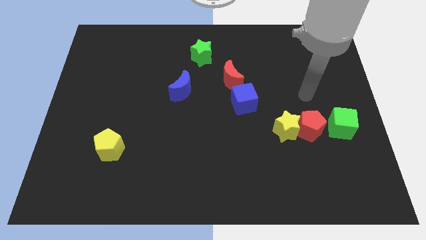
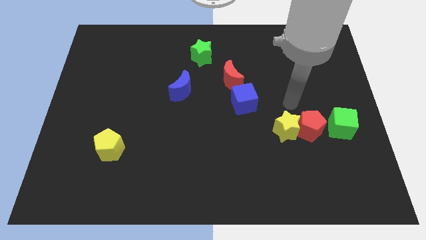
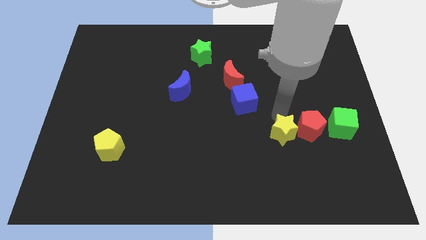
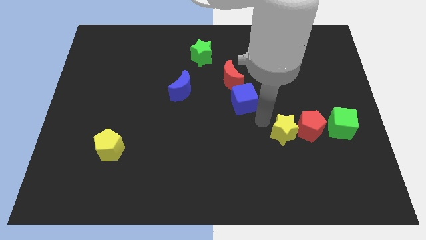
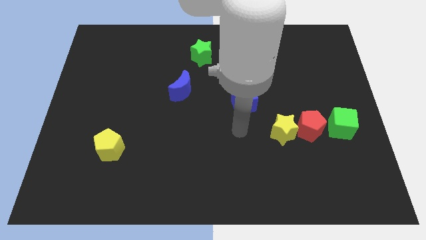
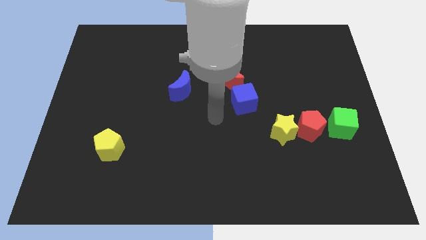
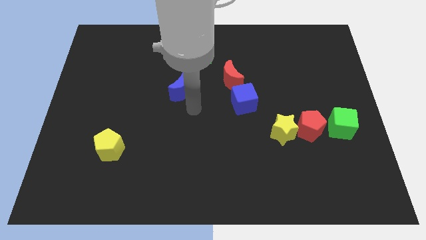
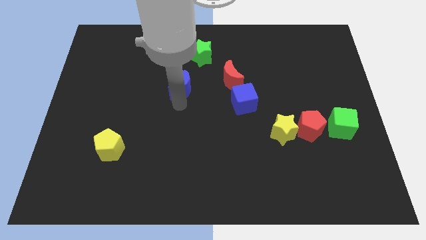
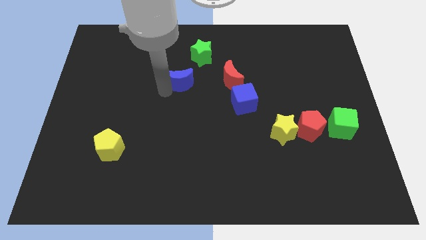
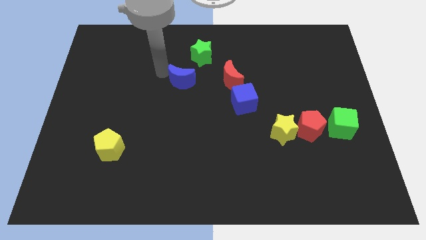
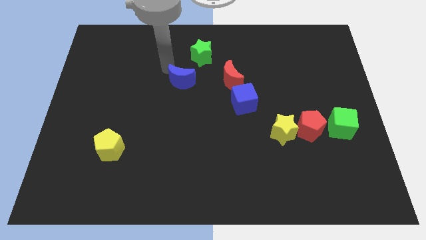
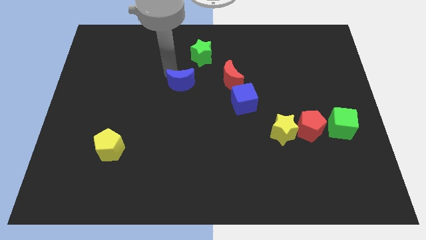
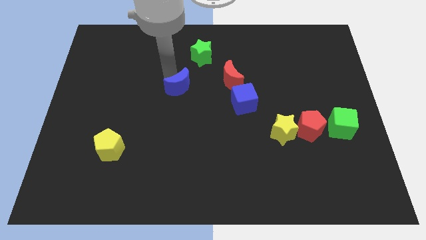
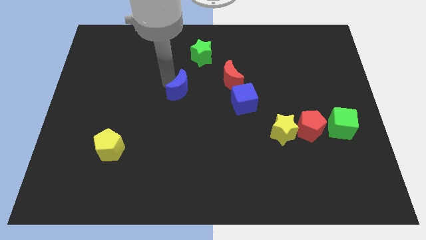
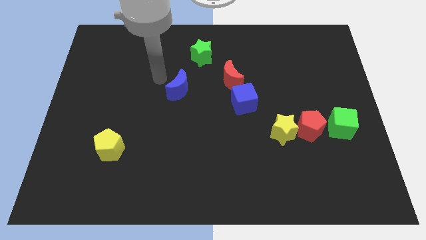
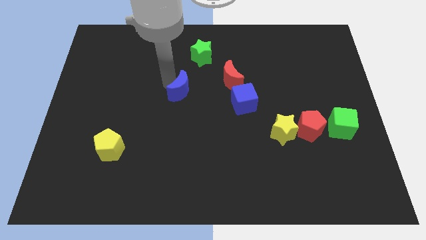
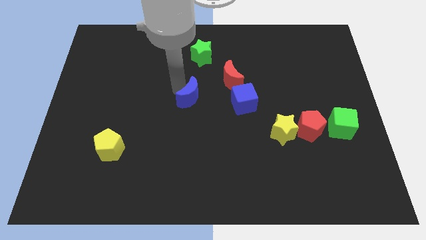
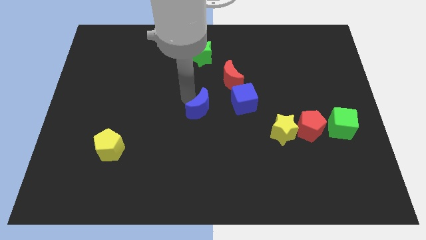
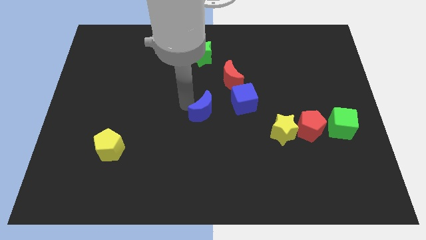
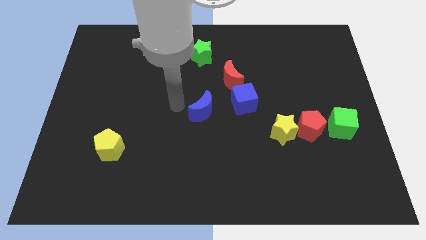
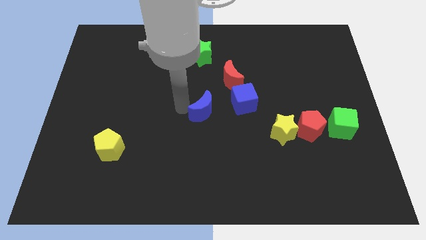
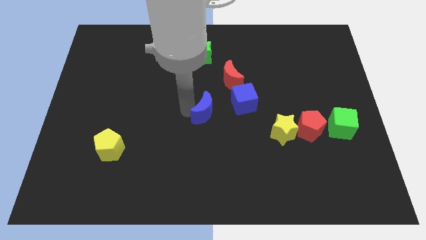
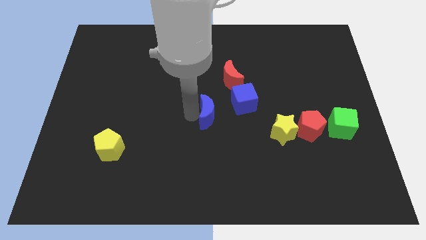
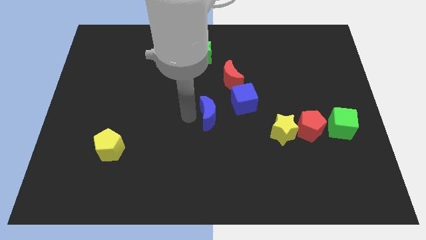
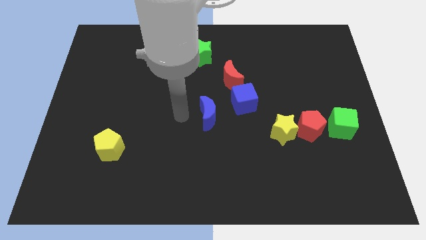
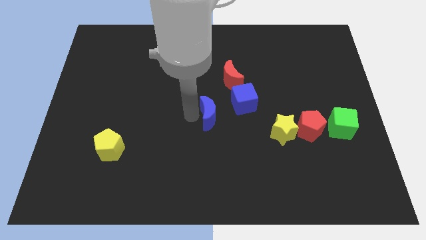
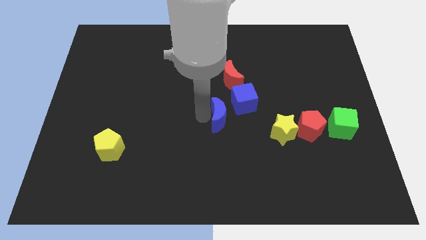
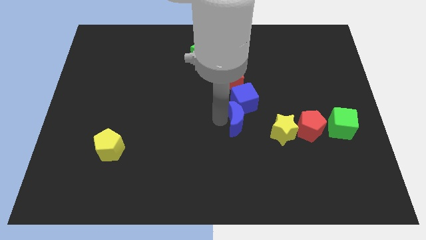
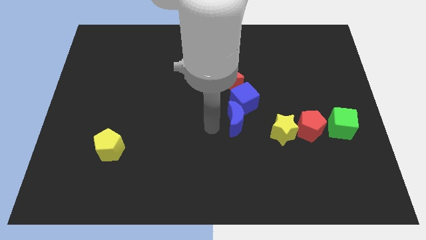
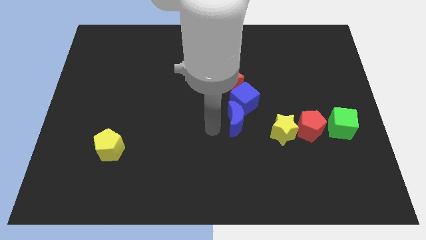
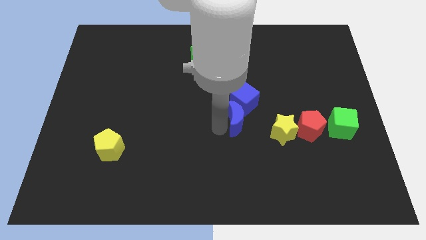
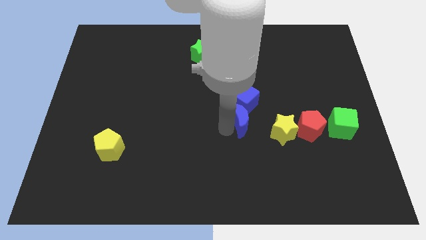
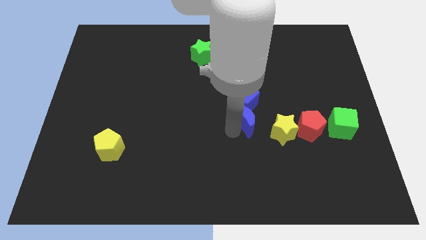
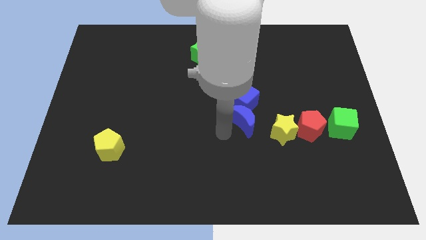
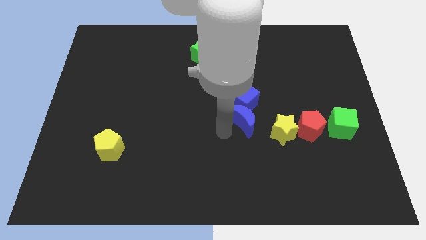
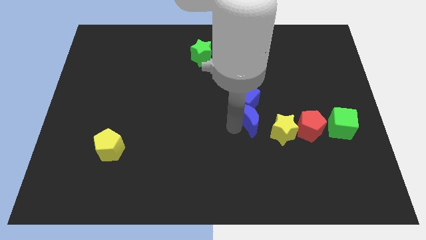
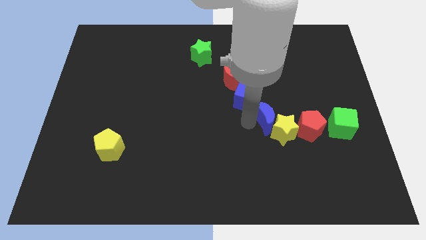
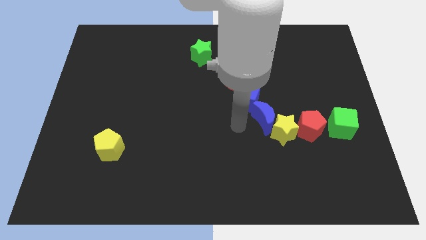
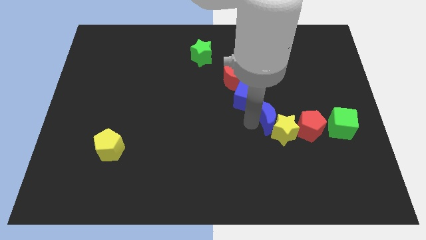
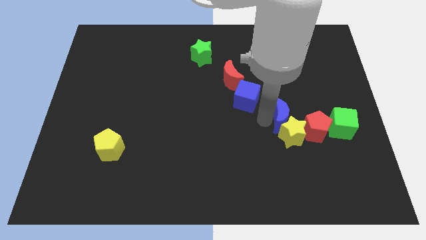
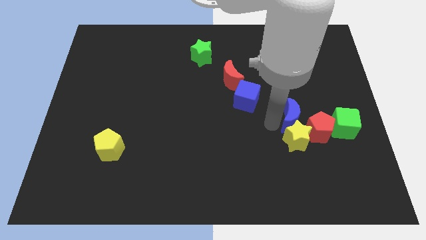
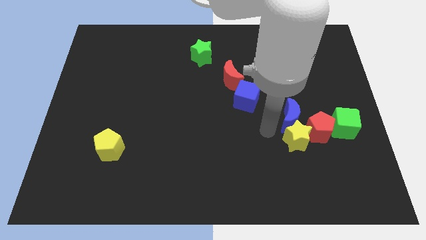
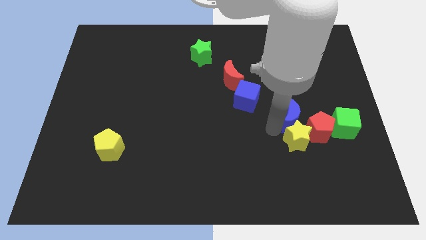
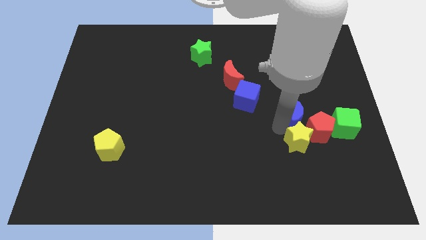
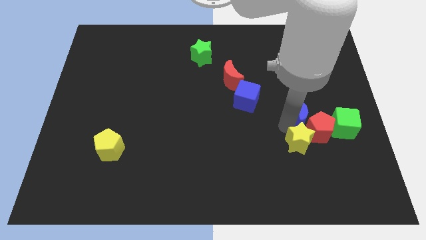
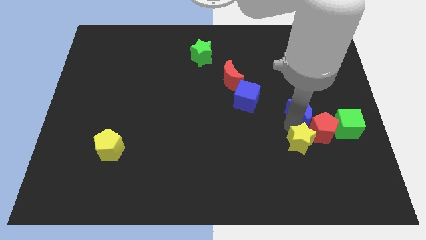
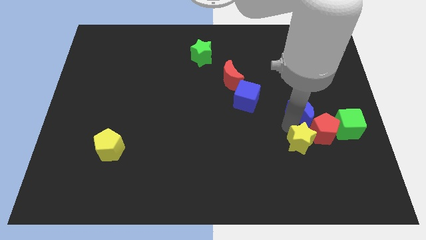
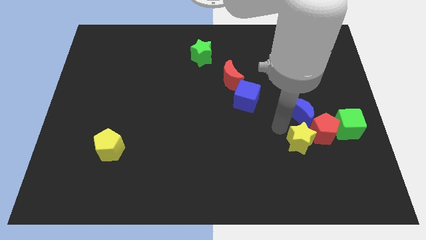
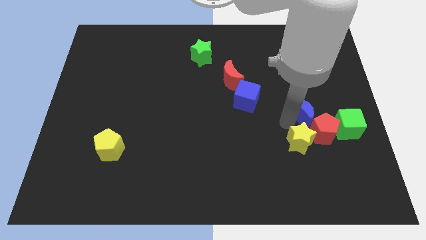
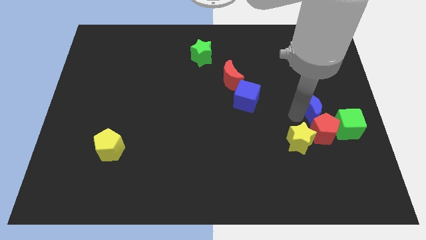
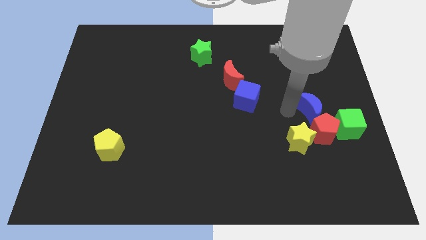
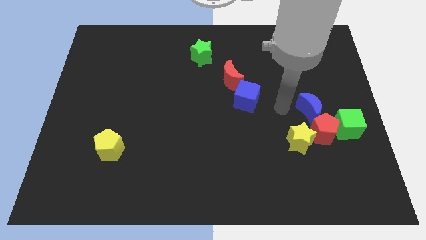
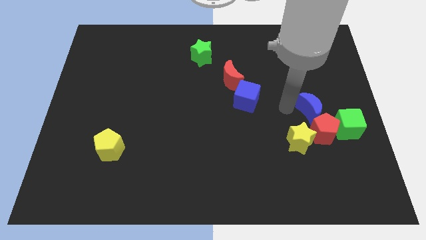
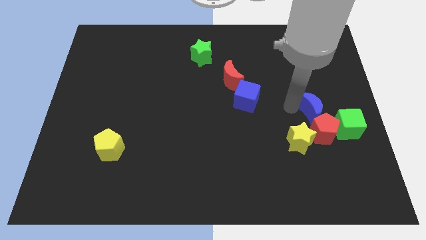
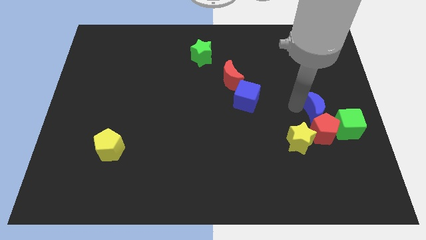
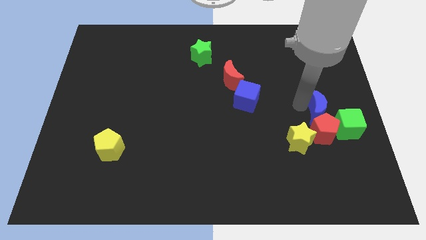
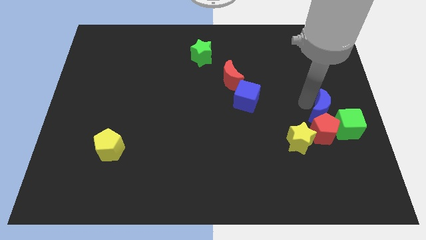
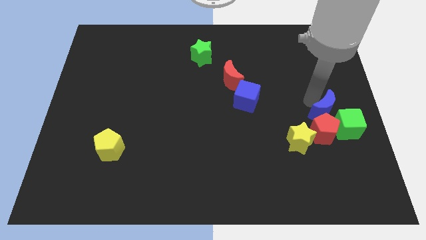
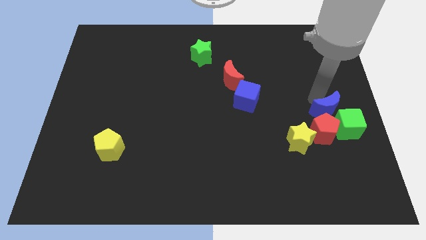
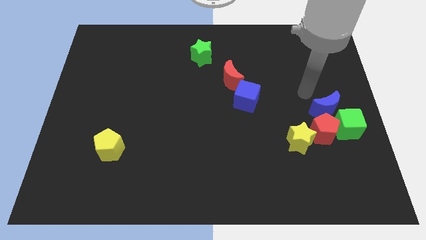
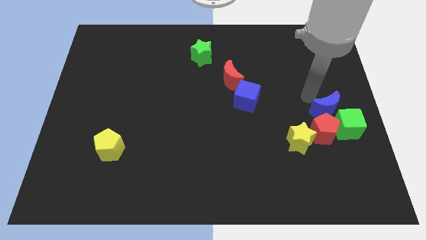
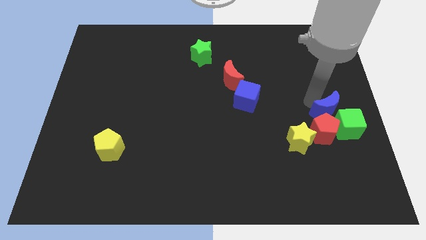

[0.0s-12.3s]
slide the blue moon close to the green cube

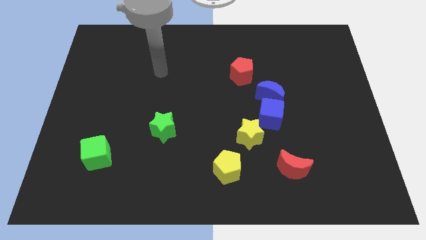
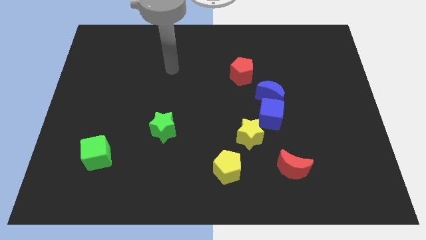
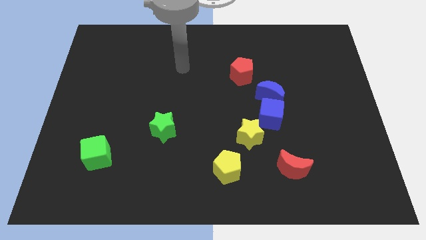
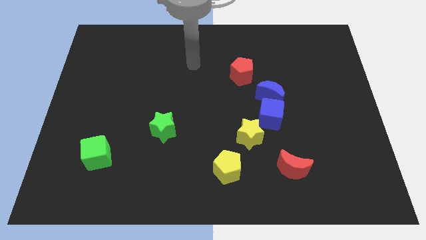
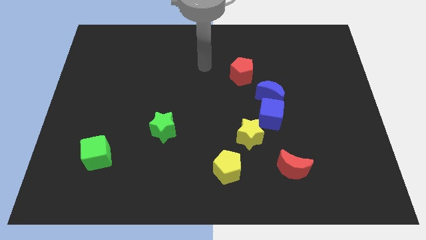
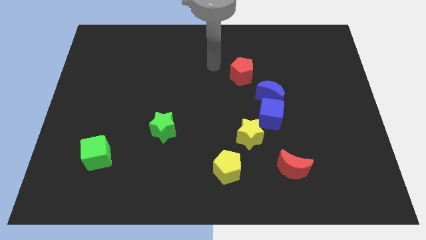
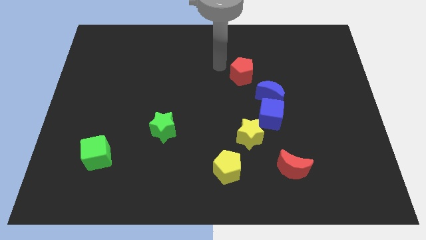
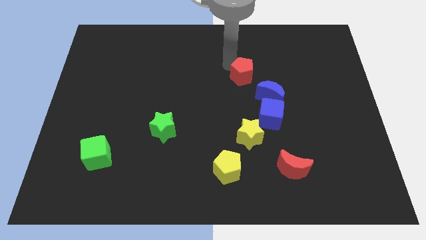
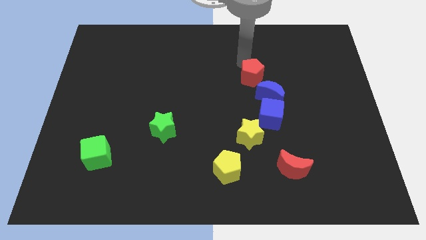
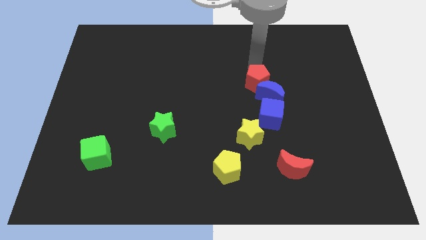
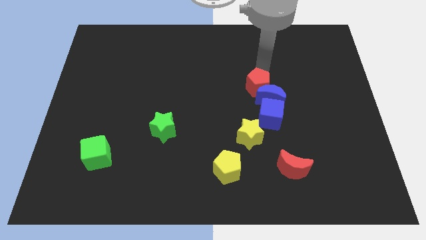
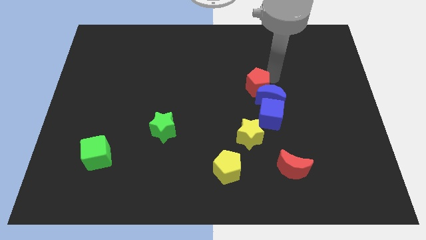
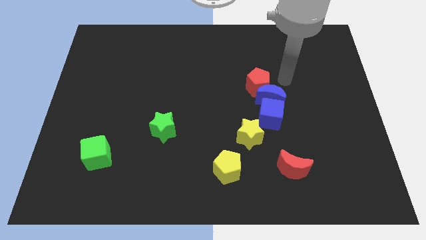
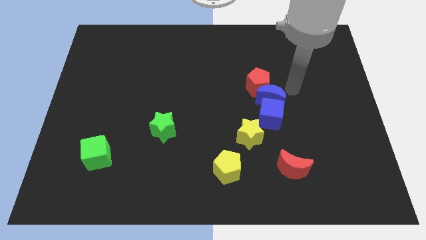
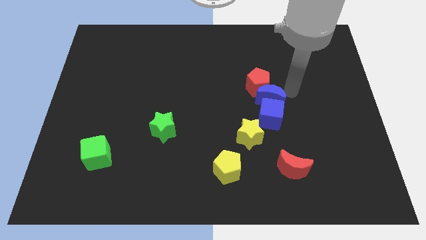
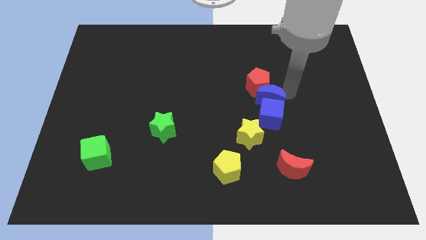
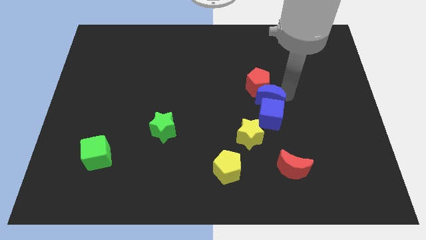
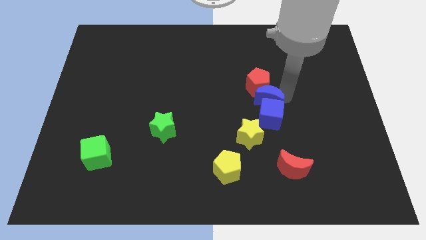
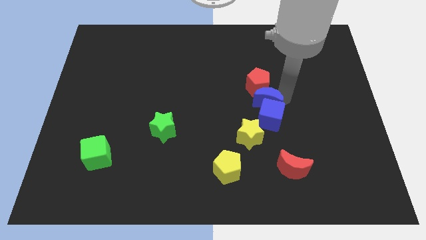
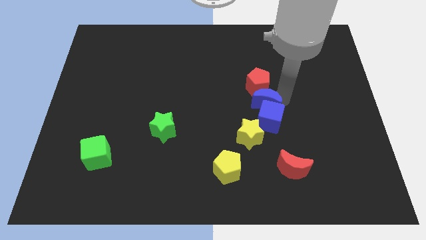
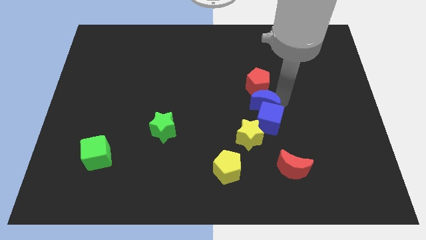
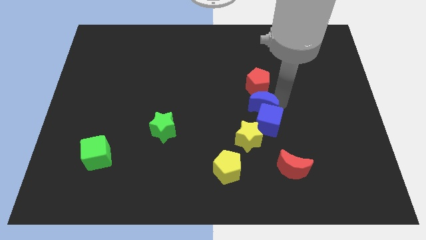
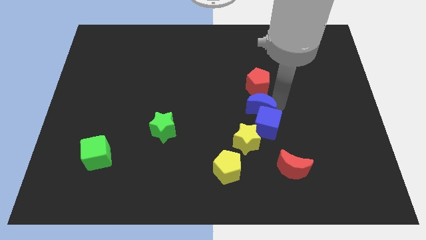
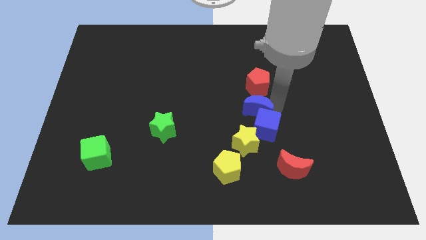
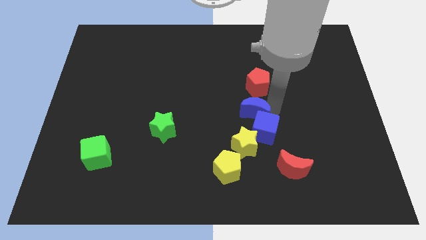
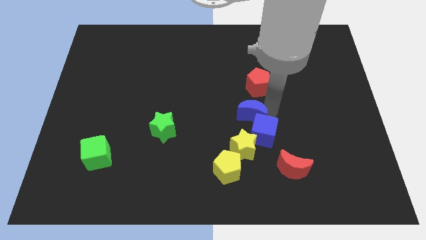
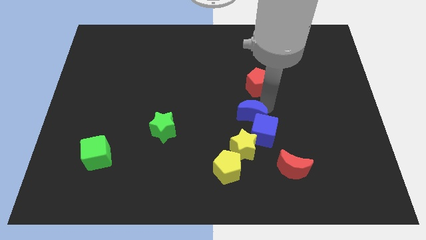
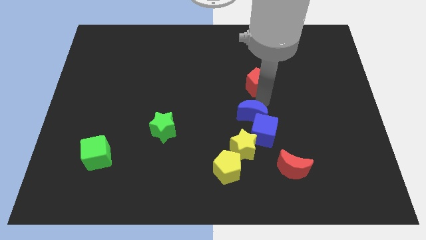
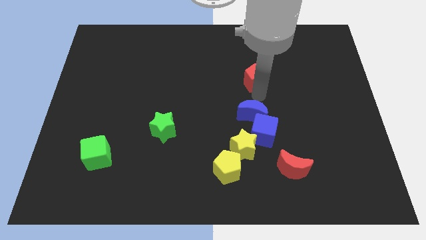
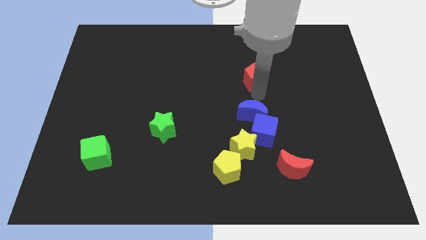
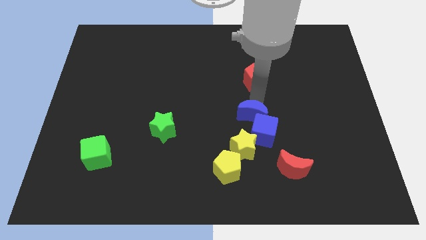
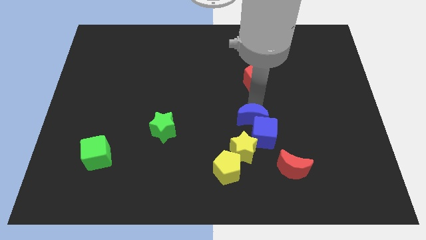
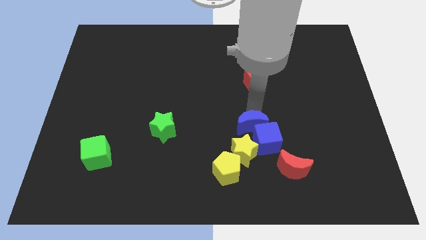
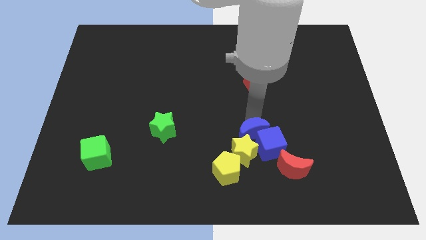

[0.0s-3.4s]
put the blue moon towards the yellow star
